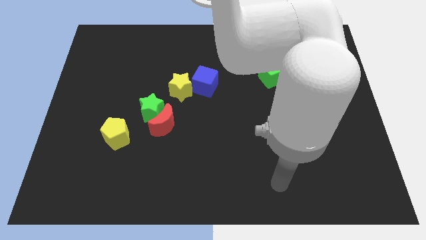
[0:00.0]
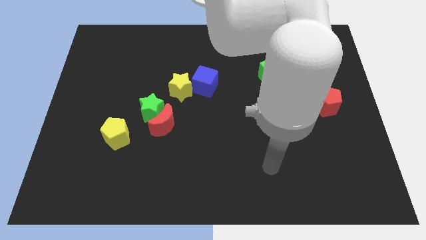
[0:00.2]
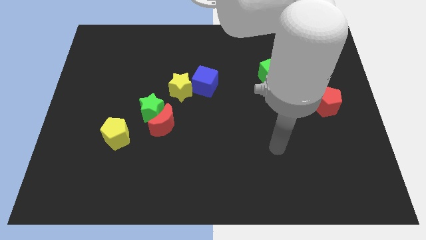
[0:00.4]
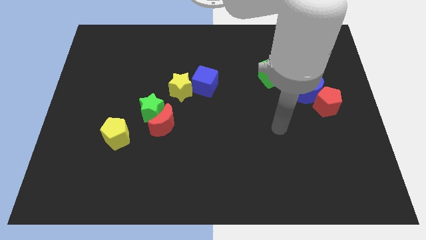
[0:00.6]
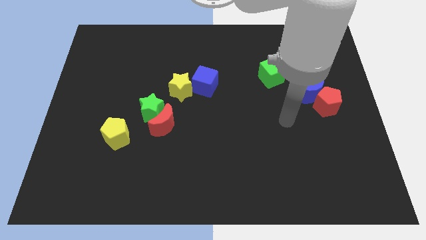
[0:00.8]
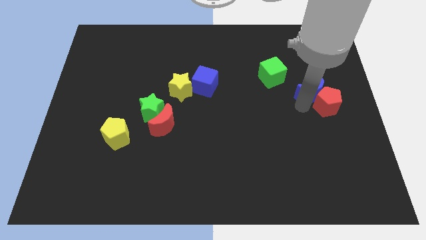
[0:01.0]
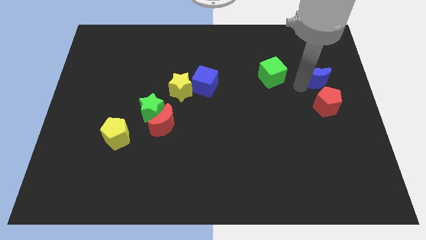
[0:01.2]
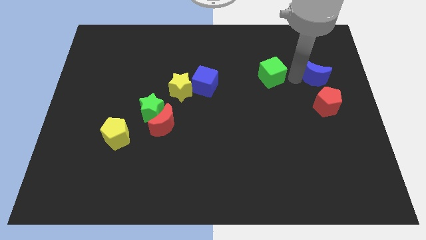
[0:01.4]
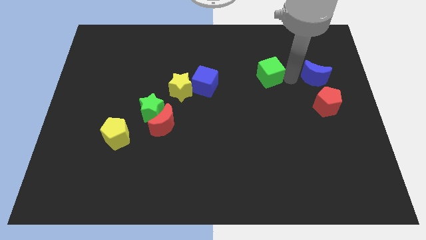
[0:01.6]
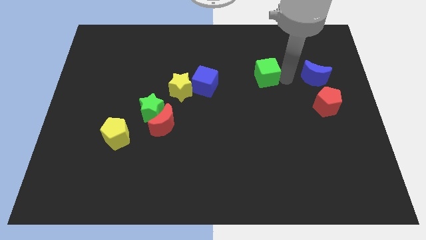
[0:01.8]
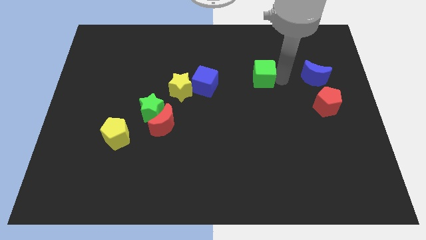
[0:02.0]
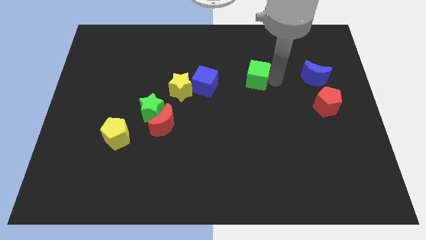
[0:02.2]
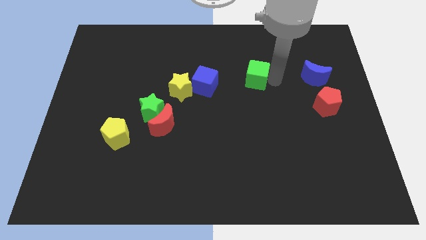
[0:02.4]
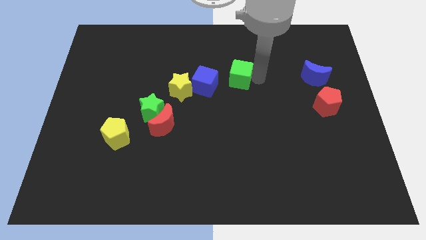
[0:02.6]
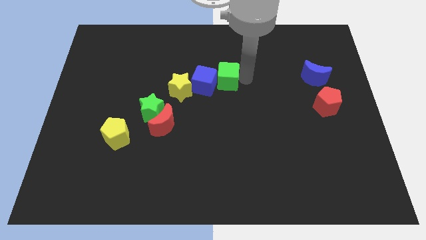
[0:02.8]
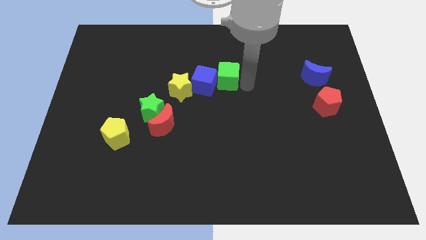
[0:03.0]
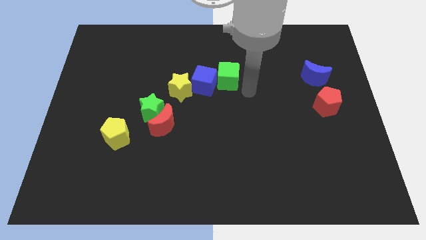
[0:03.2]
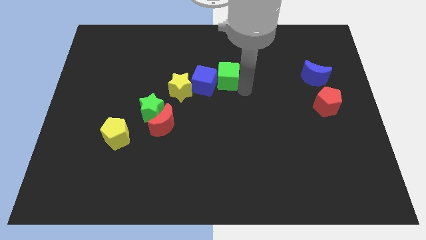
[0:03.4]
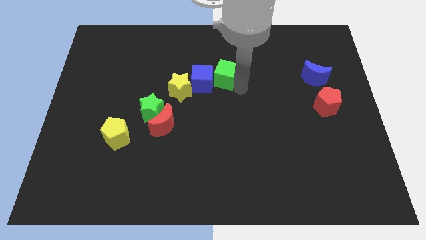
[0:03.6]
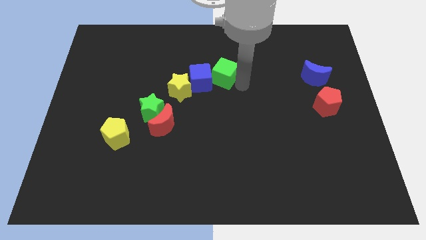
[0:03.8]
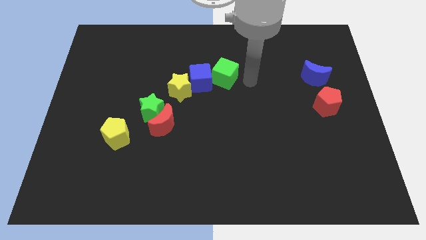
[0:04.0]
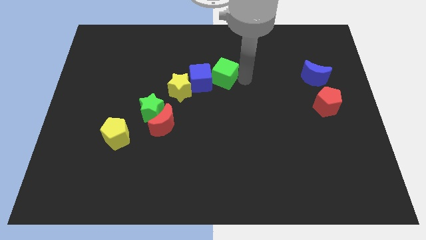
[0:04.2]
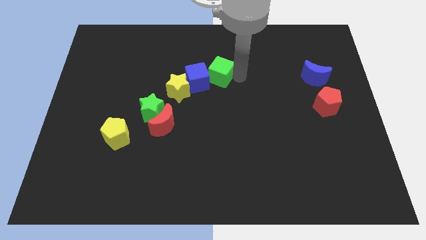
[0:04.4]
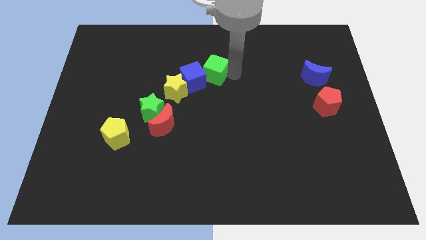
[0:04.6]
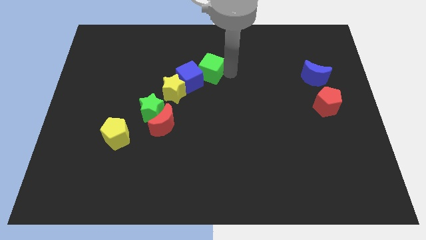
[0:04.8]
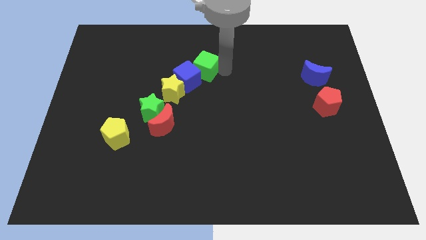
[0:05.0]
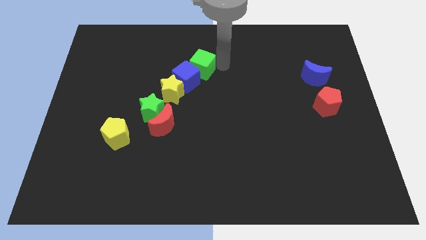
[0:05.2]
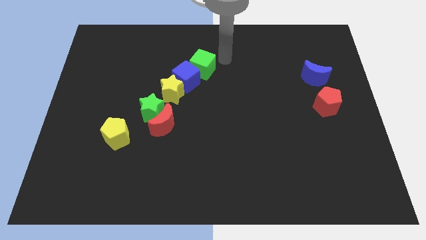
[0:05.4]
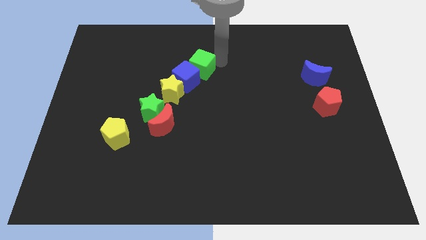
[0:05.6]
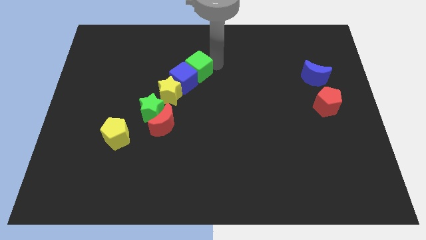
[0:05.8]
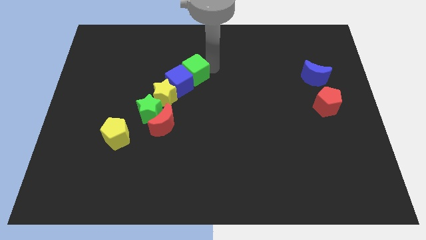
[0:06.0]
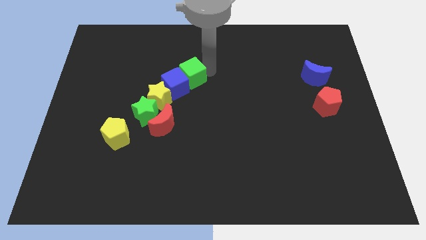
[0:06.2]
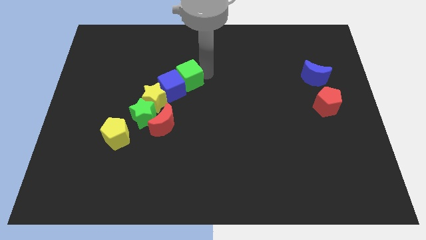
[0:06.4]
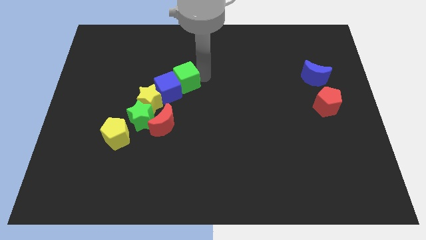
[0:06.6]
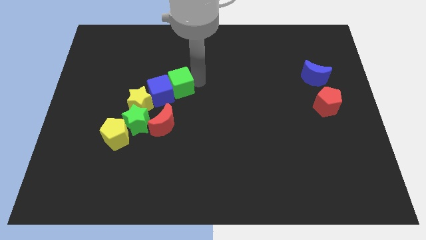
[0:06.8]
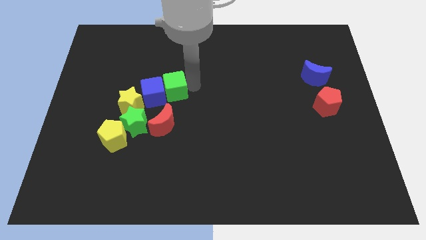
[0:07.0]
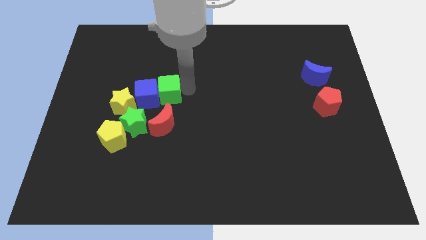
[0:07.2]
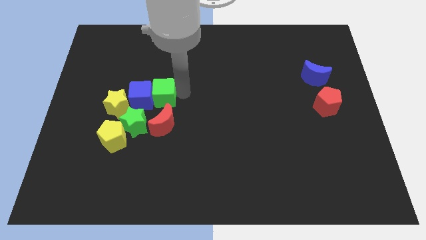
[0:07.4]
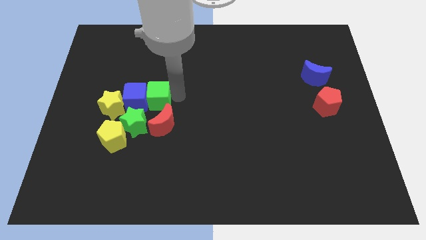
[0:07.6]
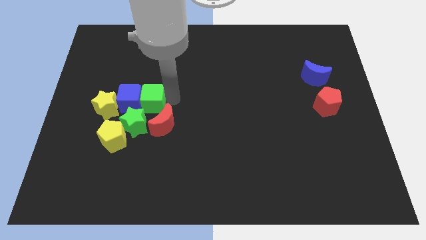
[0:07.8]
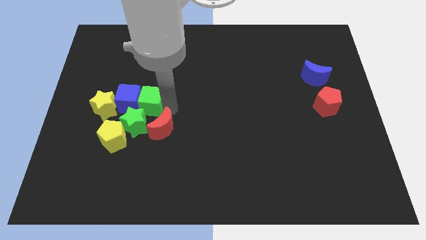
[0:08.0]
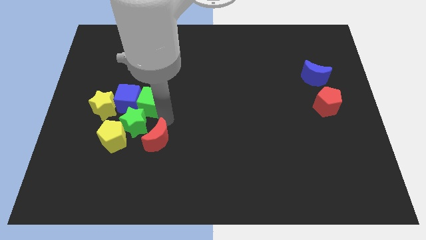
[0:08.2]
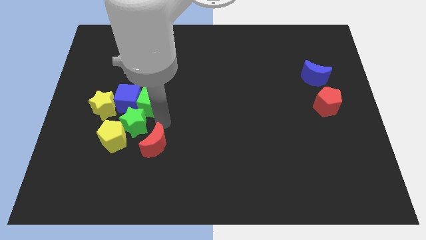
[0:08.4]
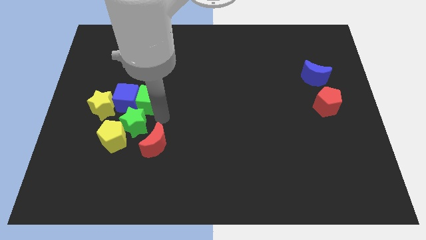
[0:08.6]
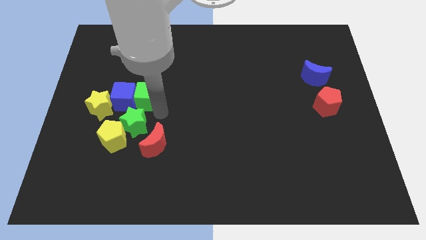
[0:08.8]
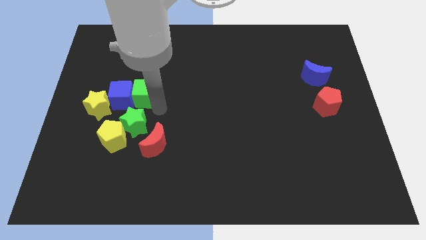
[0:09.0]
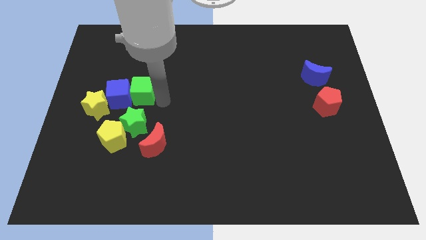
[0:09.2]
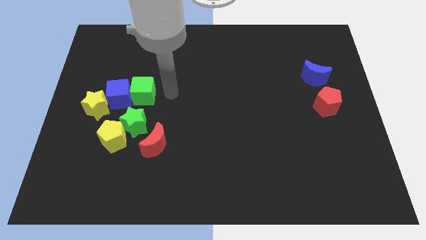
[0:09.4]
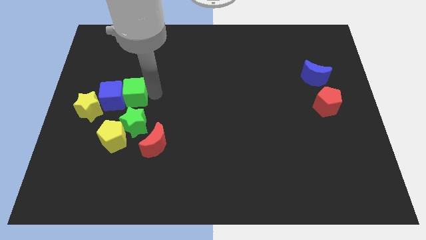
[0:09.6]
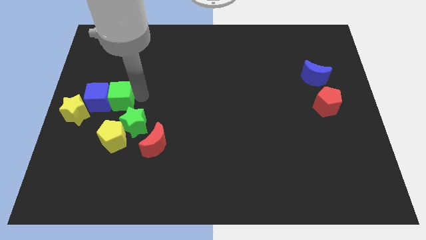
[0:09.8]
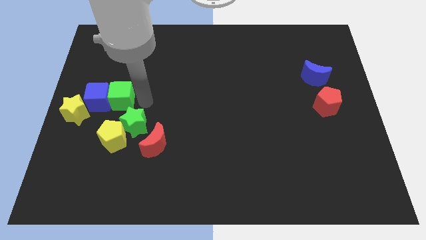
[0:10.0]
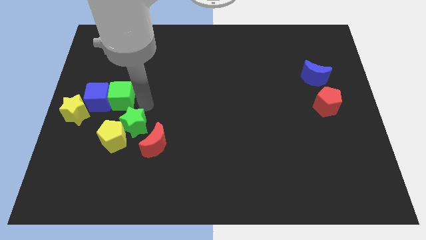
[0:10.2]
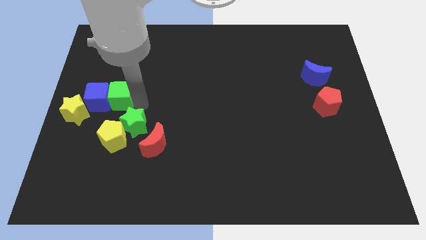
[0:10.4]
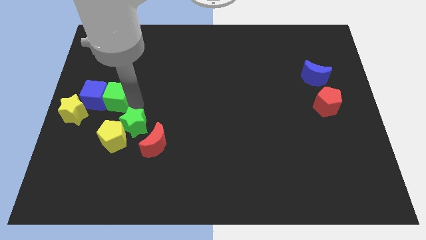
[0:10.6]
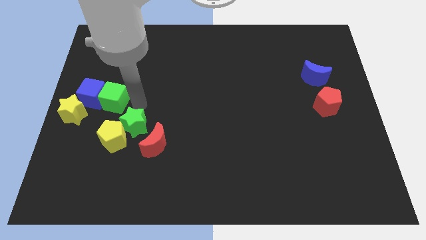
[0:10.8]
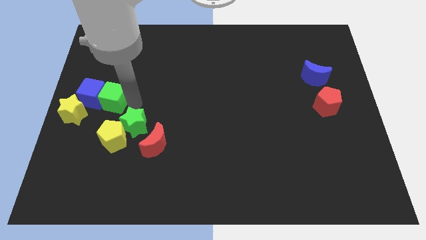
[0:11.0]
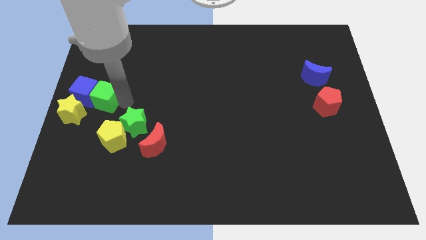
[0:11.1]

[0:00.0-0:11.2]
move the green cube to the left side

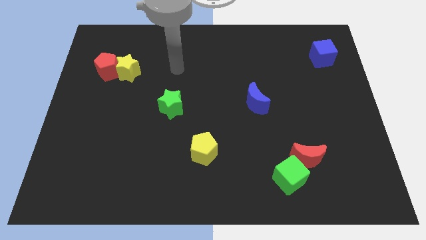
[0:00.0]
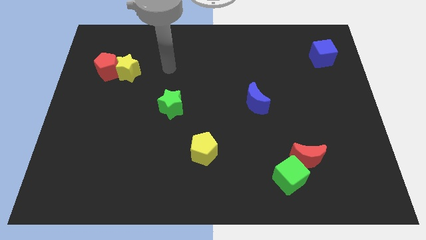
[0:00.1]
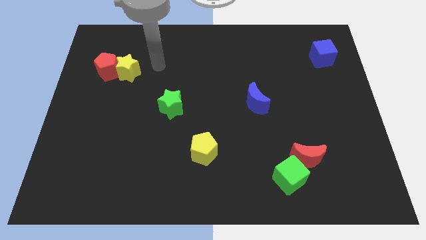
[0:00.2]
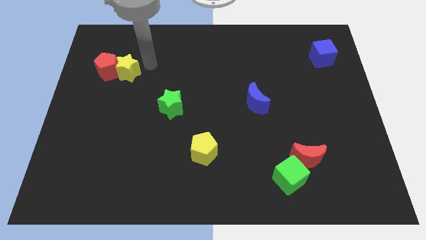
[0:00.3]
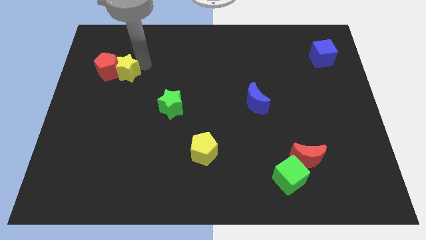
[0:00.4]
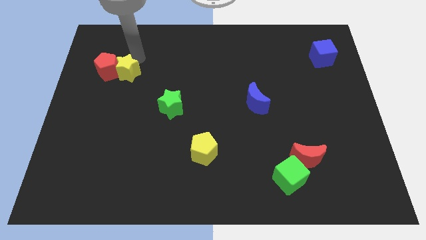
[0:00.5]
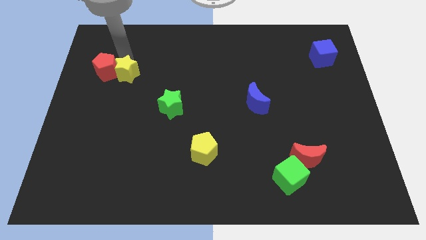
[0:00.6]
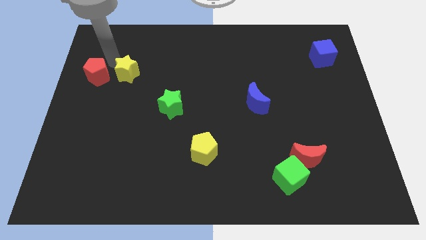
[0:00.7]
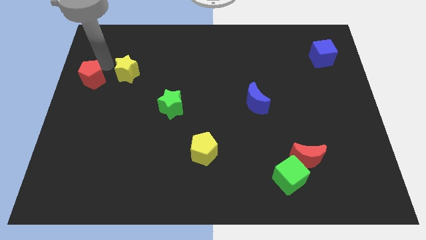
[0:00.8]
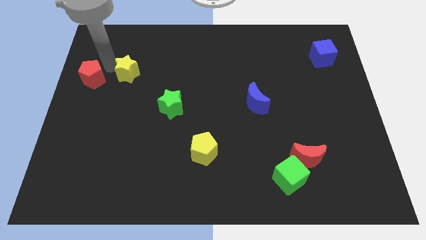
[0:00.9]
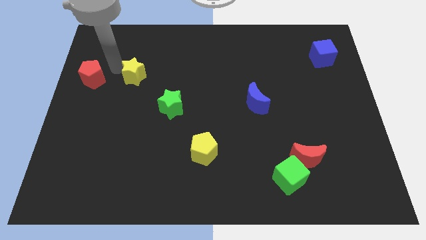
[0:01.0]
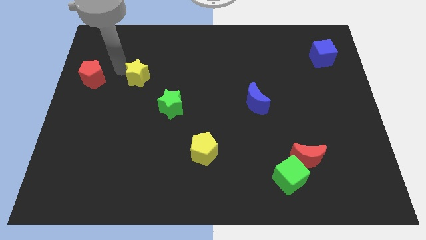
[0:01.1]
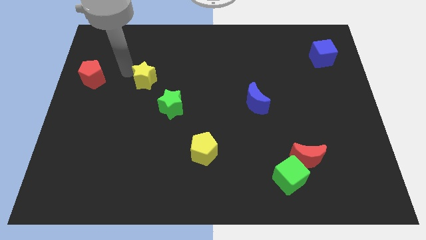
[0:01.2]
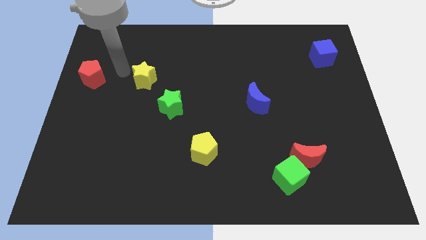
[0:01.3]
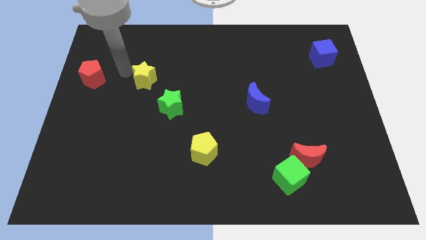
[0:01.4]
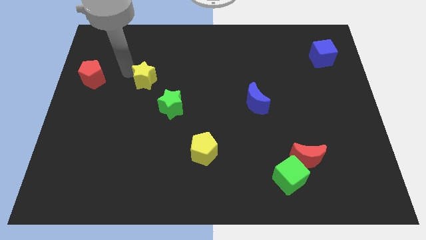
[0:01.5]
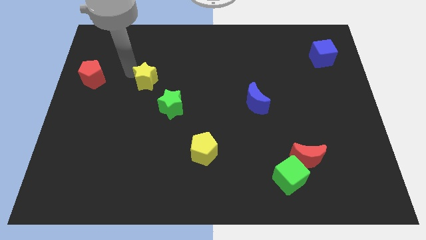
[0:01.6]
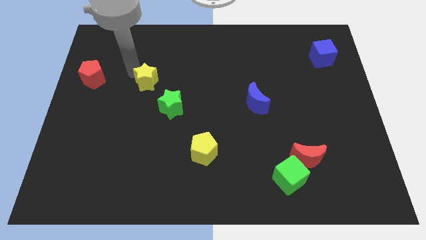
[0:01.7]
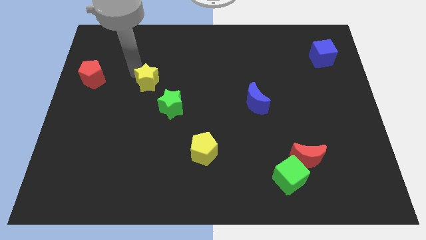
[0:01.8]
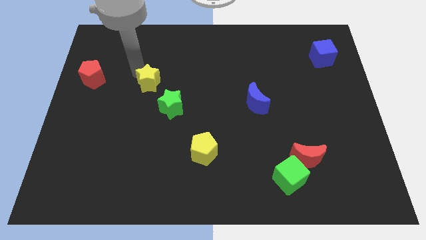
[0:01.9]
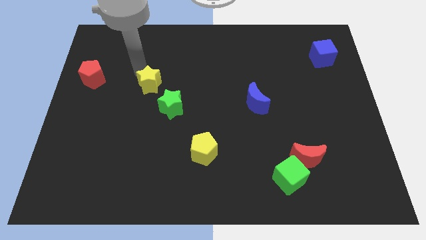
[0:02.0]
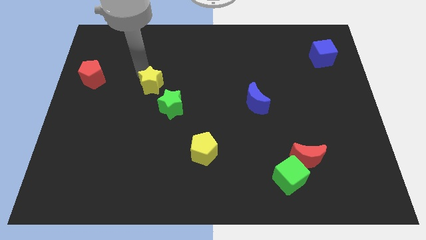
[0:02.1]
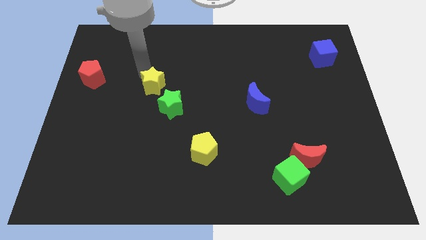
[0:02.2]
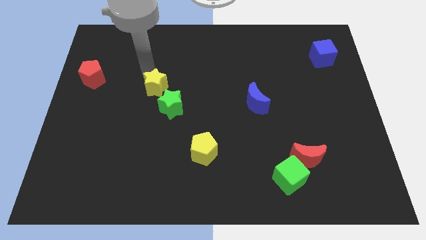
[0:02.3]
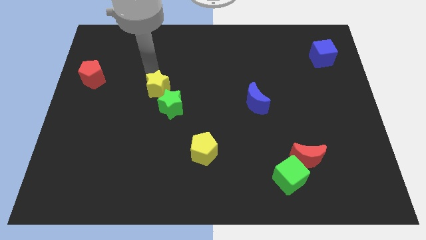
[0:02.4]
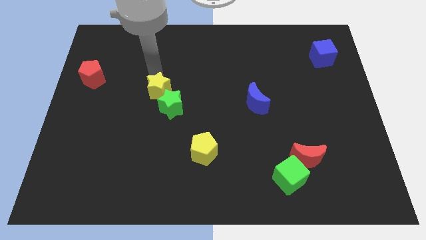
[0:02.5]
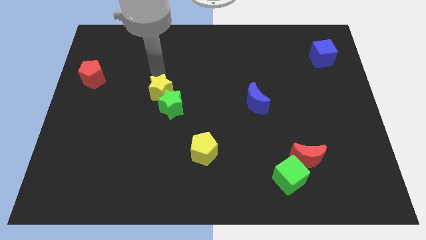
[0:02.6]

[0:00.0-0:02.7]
put the yellow star to the middle of the board
